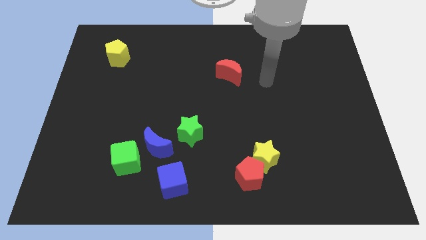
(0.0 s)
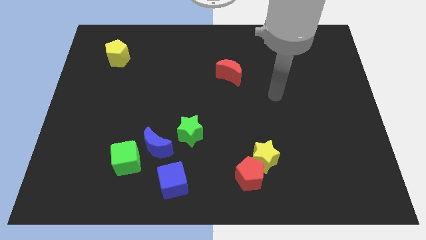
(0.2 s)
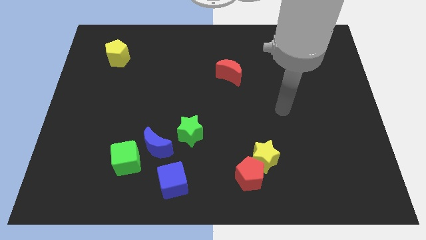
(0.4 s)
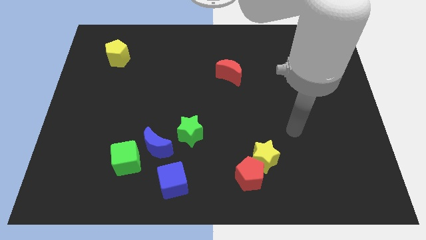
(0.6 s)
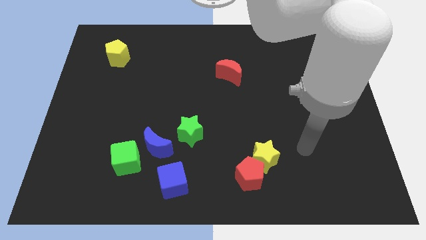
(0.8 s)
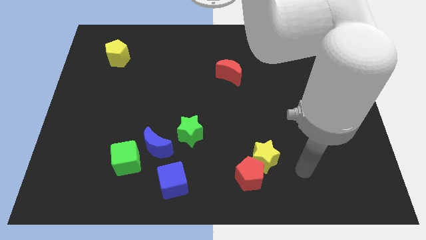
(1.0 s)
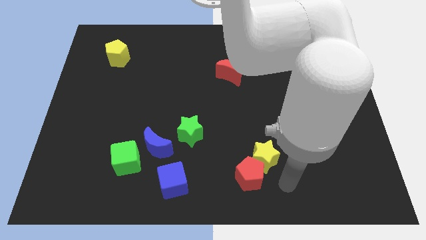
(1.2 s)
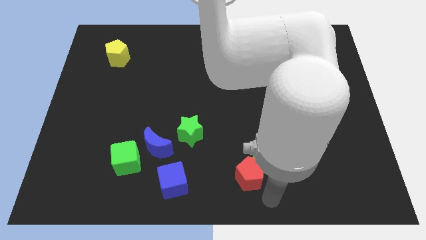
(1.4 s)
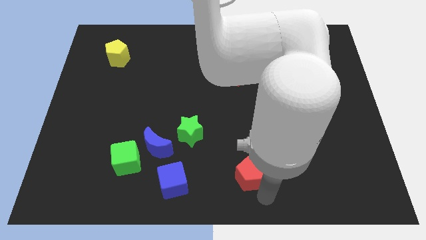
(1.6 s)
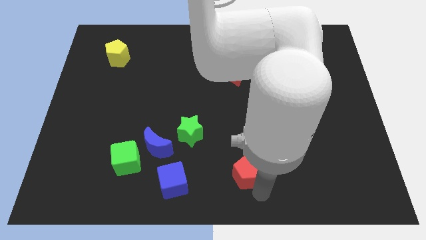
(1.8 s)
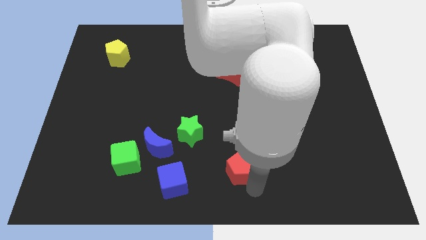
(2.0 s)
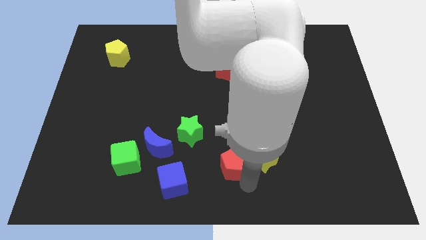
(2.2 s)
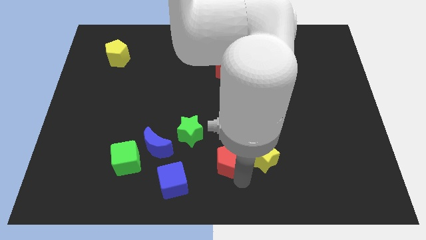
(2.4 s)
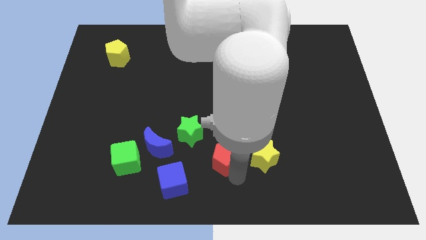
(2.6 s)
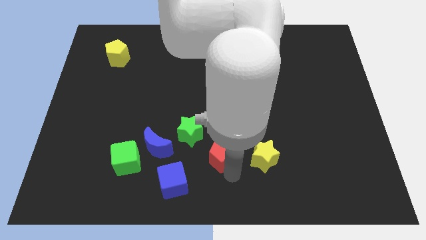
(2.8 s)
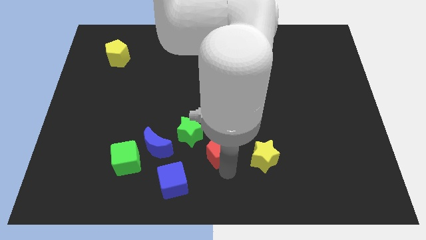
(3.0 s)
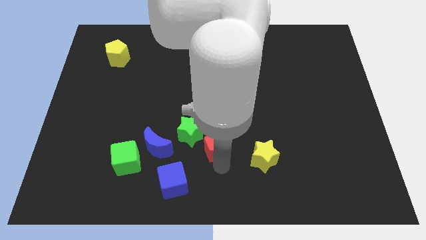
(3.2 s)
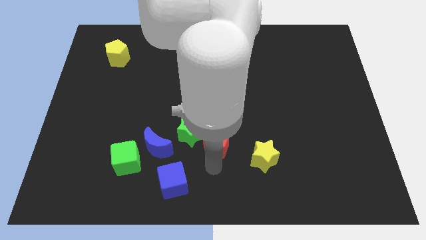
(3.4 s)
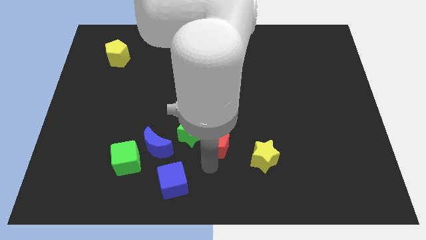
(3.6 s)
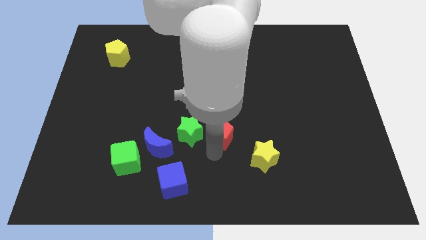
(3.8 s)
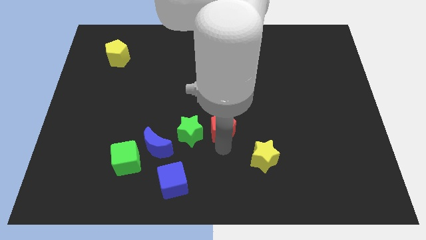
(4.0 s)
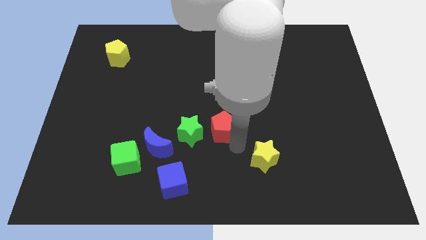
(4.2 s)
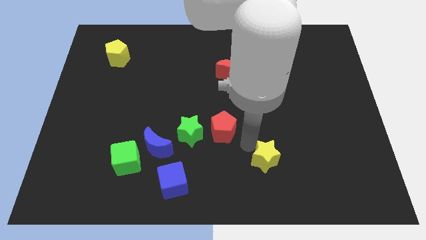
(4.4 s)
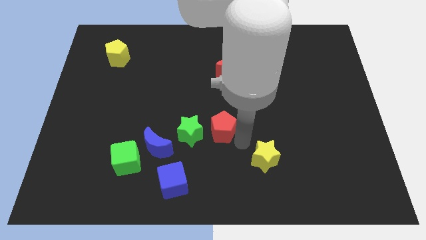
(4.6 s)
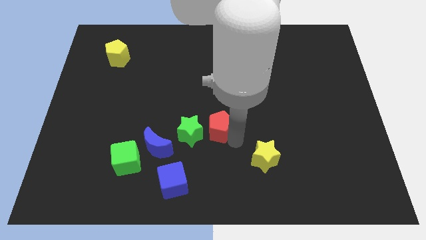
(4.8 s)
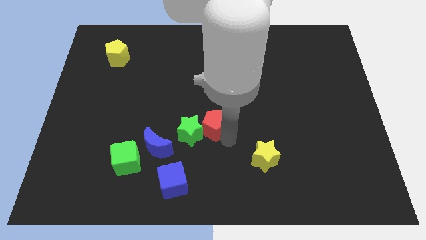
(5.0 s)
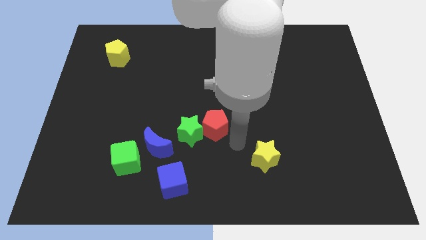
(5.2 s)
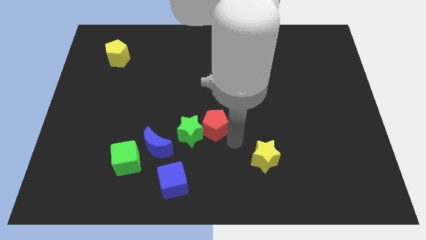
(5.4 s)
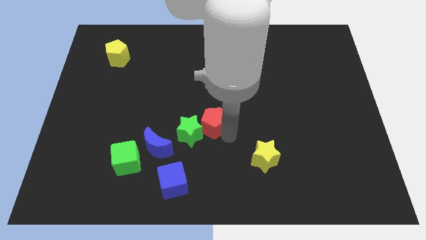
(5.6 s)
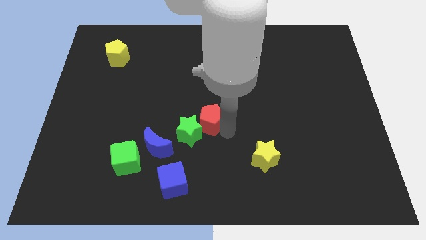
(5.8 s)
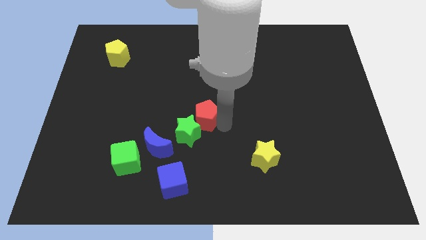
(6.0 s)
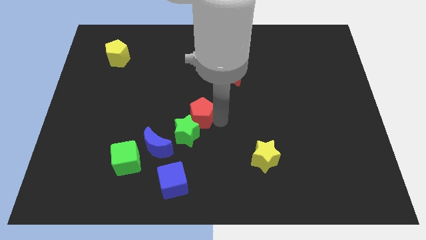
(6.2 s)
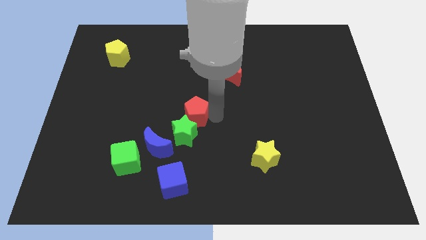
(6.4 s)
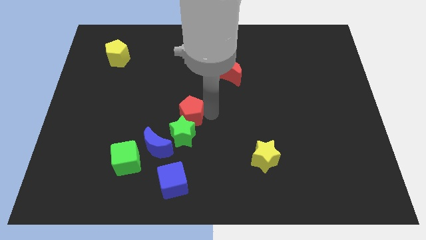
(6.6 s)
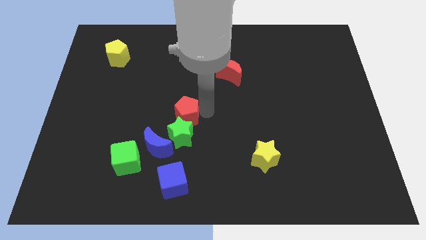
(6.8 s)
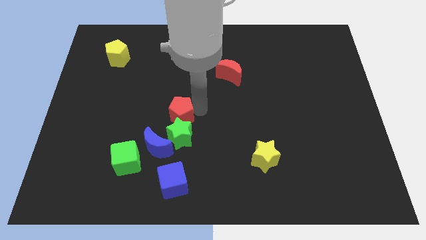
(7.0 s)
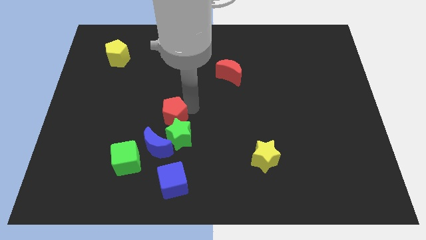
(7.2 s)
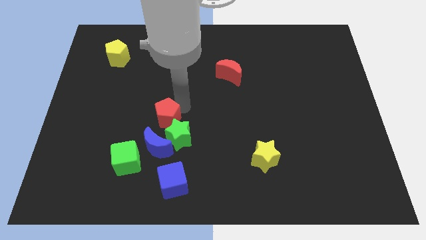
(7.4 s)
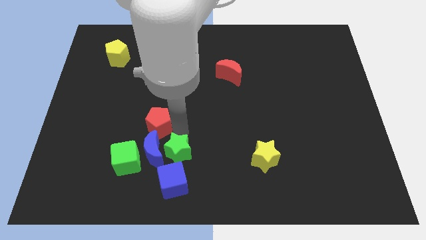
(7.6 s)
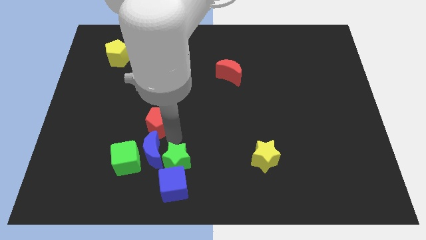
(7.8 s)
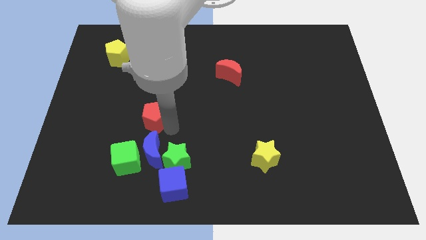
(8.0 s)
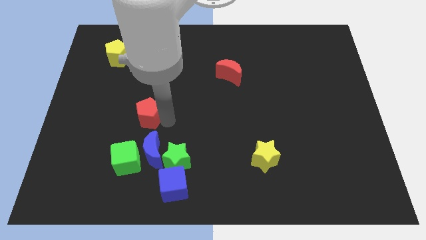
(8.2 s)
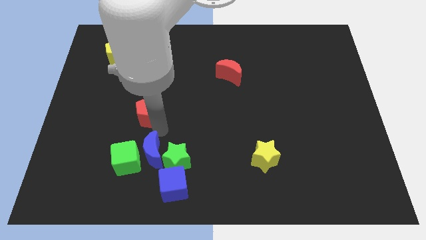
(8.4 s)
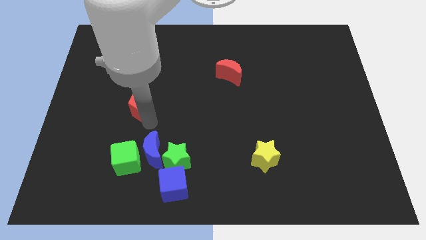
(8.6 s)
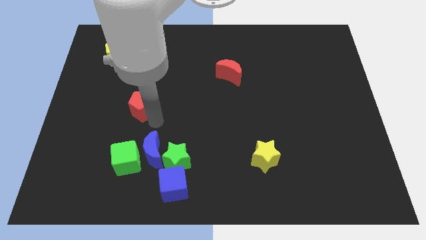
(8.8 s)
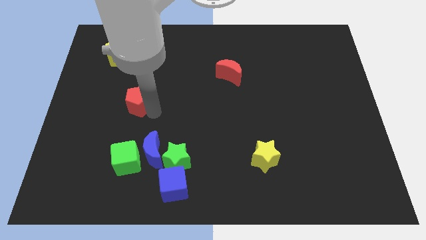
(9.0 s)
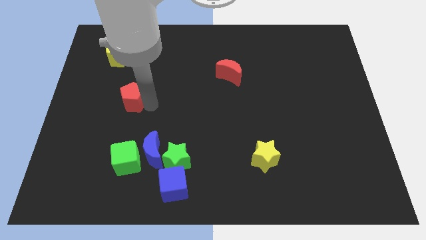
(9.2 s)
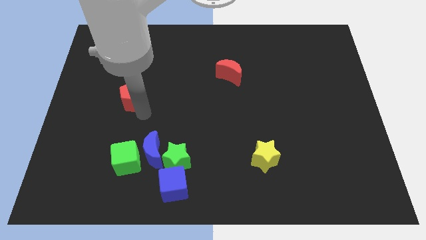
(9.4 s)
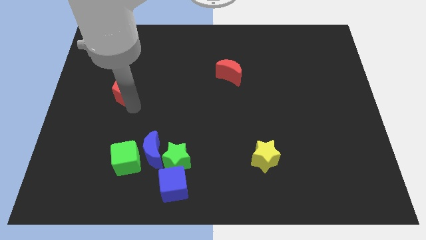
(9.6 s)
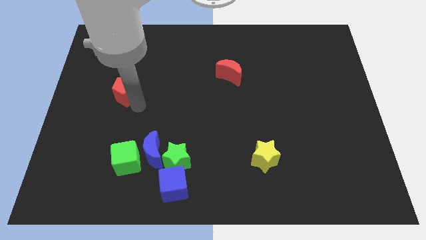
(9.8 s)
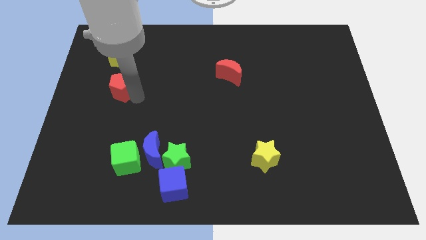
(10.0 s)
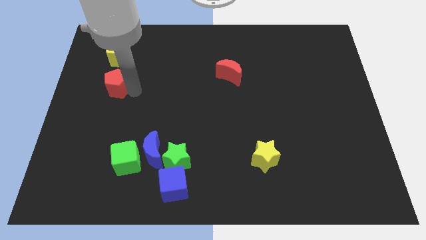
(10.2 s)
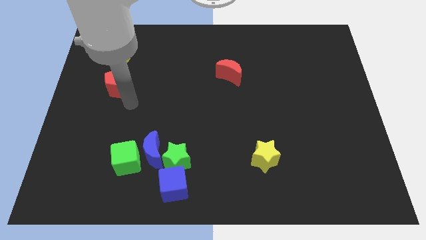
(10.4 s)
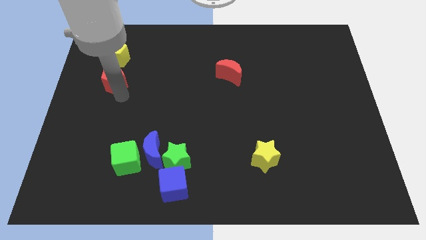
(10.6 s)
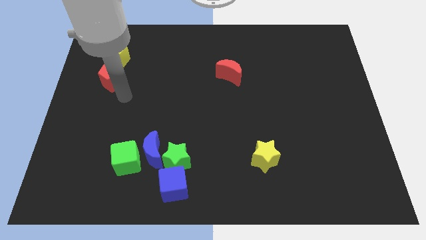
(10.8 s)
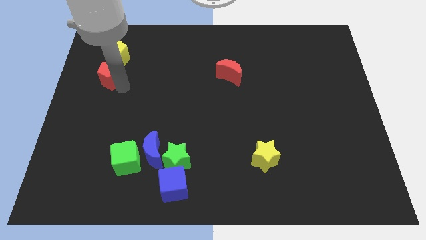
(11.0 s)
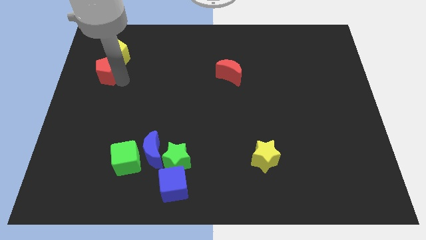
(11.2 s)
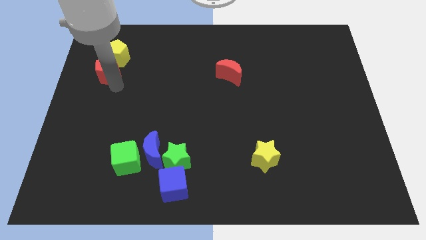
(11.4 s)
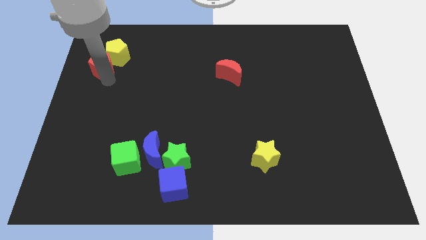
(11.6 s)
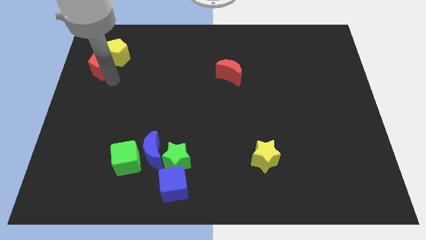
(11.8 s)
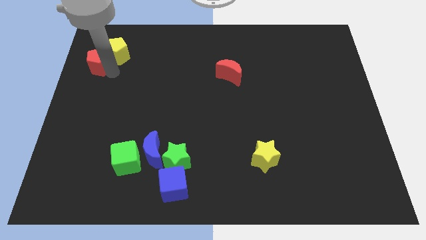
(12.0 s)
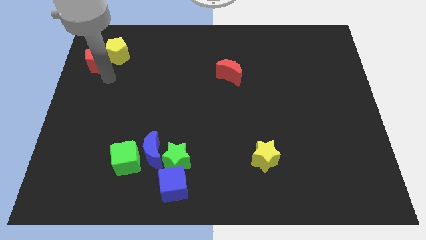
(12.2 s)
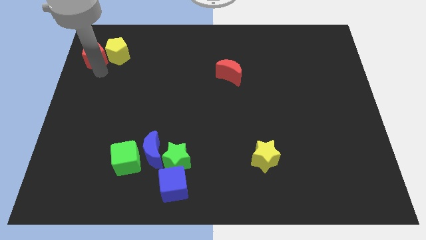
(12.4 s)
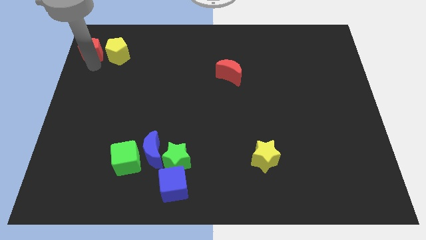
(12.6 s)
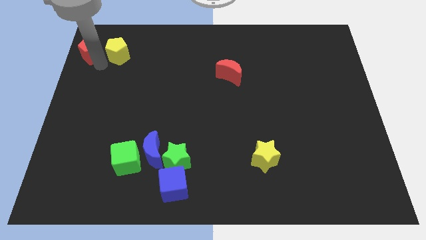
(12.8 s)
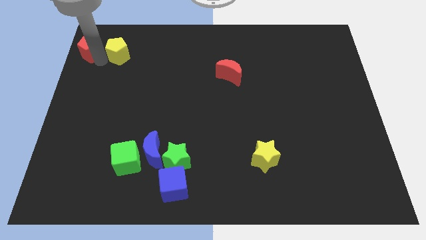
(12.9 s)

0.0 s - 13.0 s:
move the red pentagon to the top left of the board
